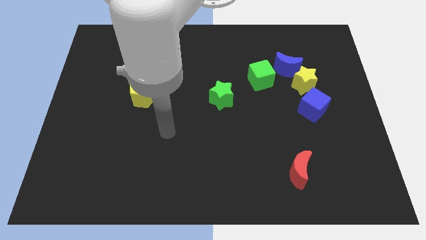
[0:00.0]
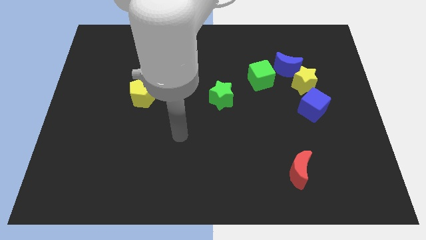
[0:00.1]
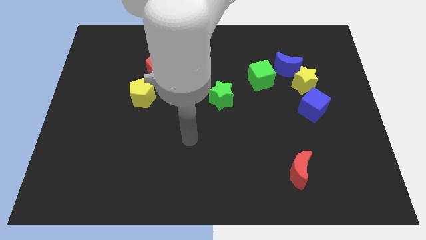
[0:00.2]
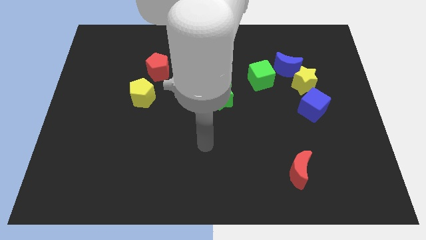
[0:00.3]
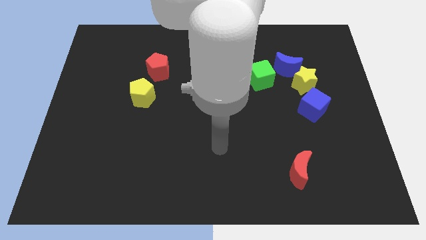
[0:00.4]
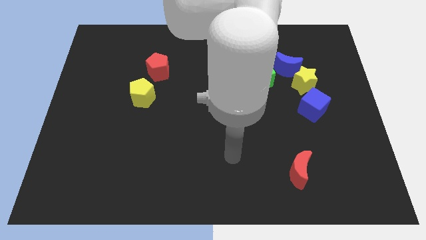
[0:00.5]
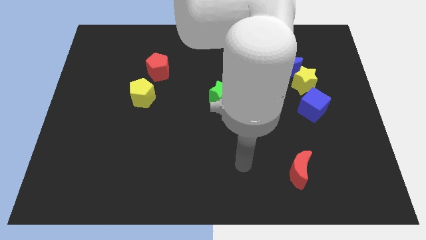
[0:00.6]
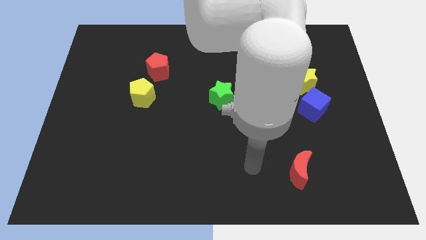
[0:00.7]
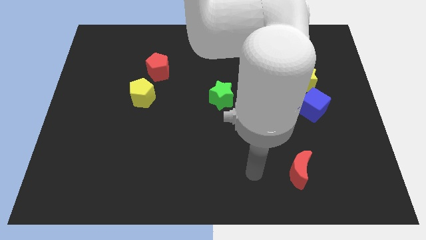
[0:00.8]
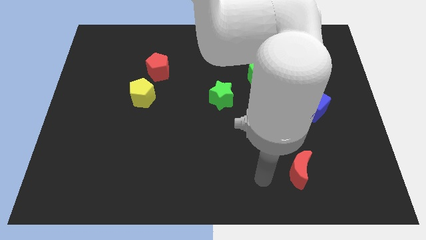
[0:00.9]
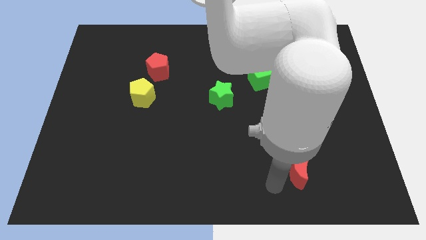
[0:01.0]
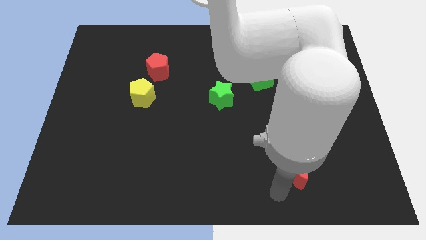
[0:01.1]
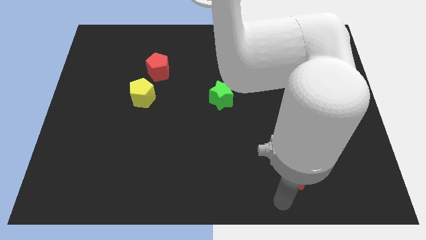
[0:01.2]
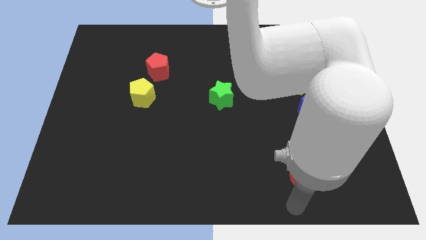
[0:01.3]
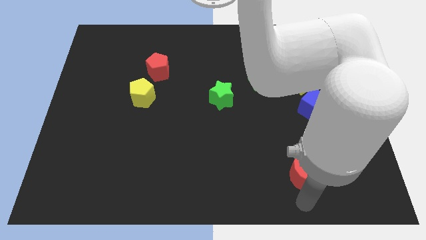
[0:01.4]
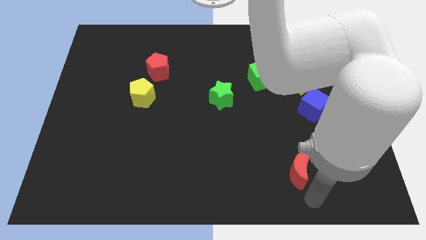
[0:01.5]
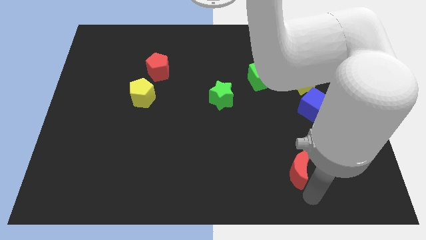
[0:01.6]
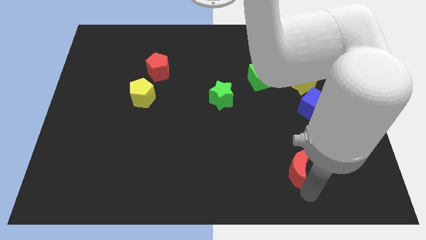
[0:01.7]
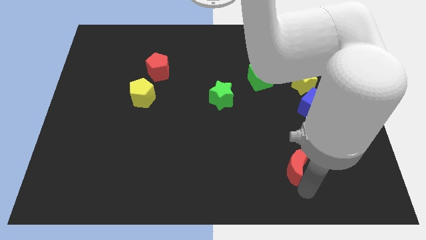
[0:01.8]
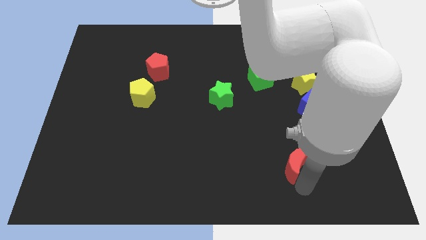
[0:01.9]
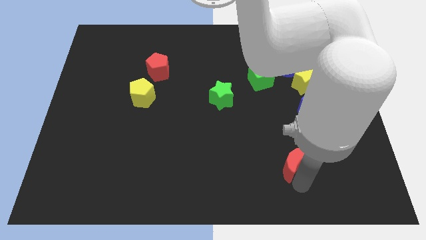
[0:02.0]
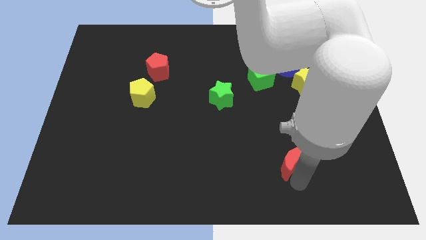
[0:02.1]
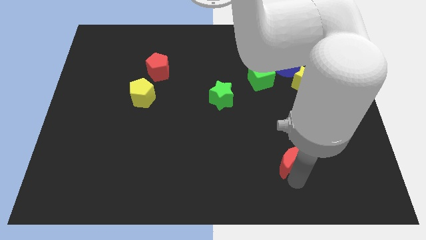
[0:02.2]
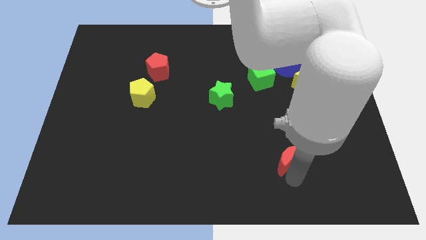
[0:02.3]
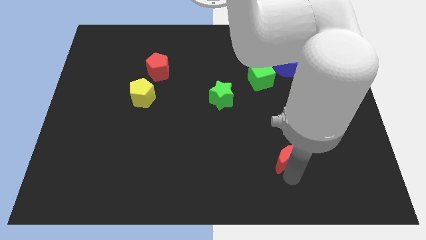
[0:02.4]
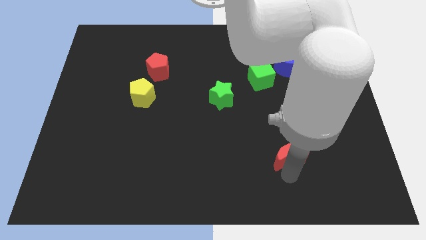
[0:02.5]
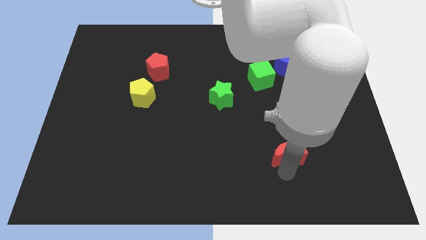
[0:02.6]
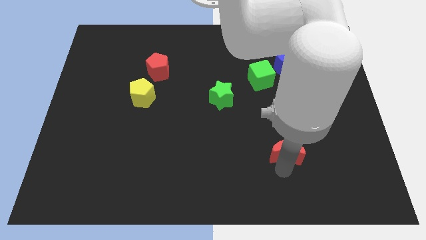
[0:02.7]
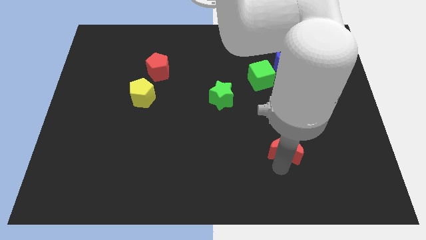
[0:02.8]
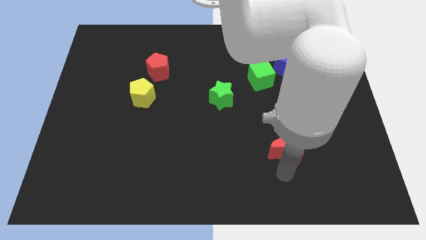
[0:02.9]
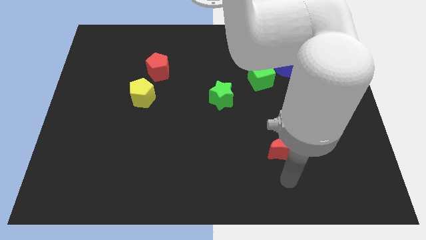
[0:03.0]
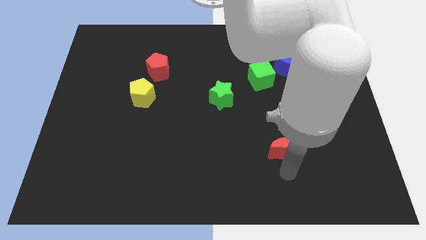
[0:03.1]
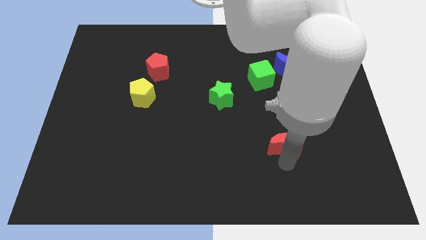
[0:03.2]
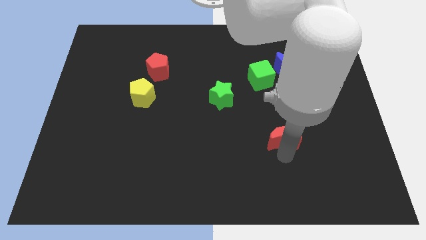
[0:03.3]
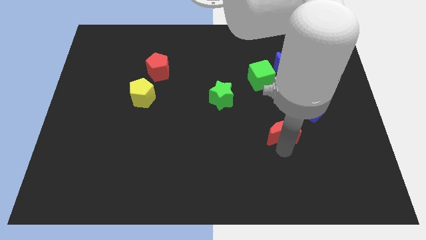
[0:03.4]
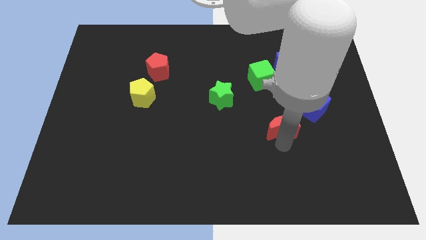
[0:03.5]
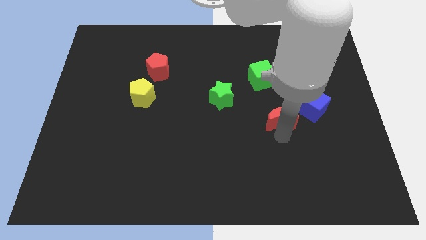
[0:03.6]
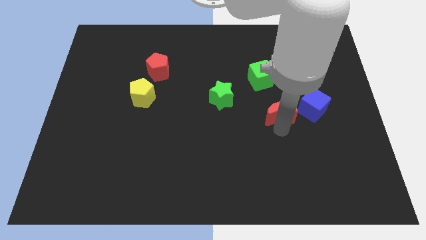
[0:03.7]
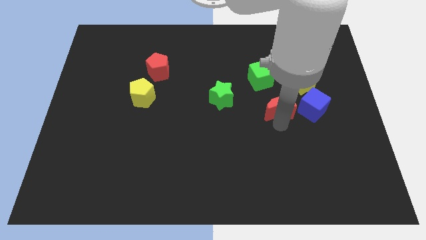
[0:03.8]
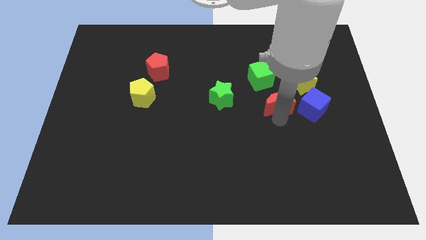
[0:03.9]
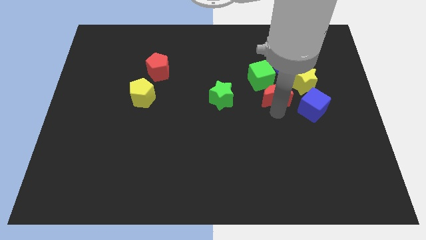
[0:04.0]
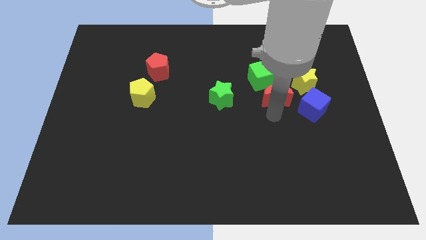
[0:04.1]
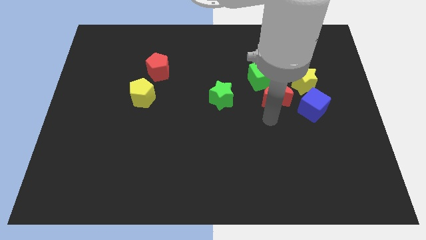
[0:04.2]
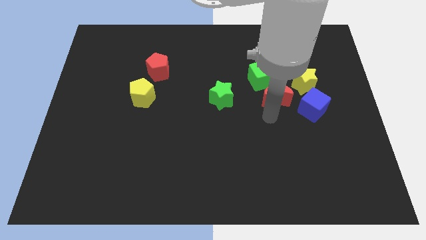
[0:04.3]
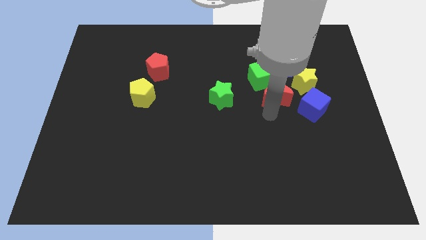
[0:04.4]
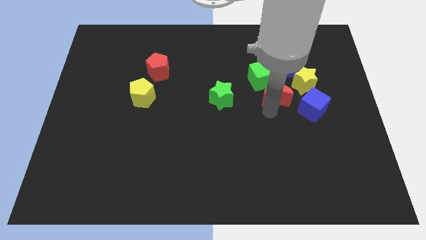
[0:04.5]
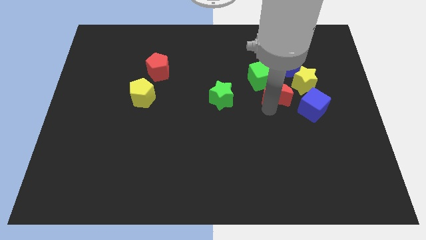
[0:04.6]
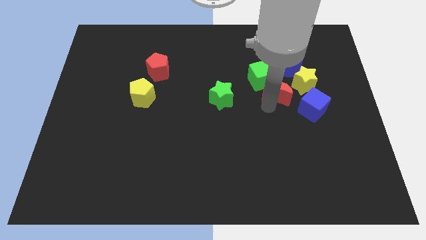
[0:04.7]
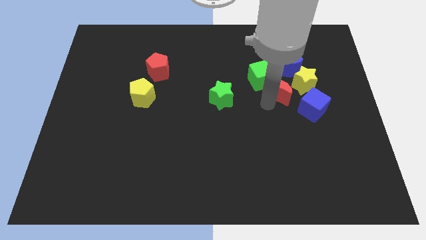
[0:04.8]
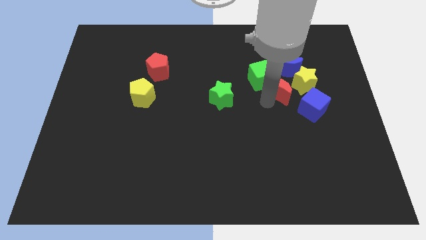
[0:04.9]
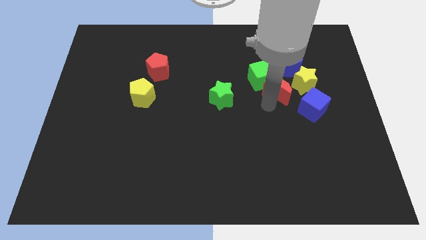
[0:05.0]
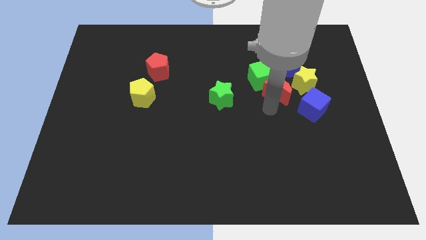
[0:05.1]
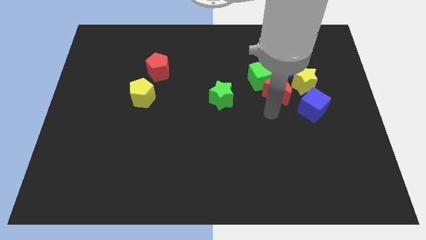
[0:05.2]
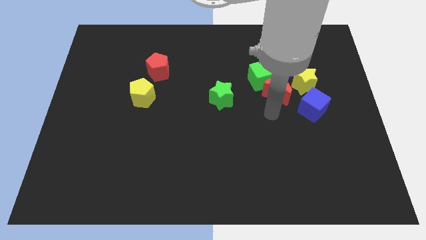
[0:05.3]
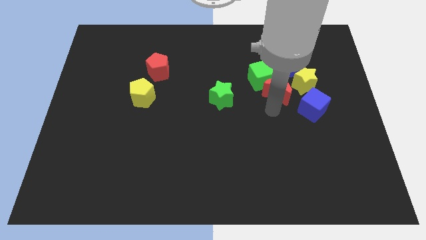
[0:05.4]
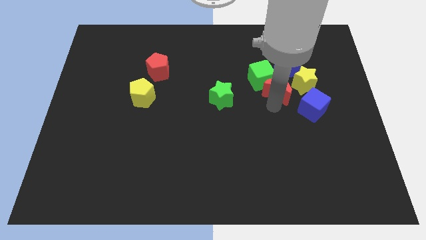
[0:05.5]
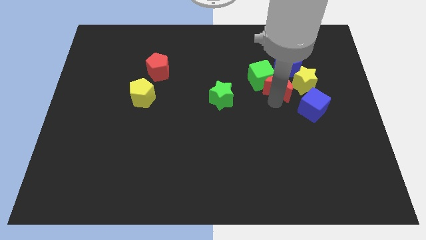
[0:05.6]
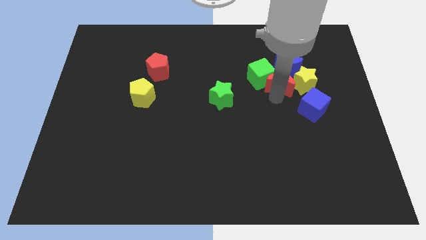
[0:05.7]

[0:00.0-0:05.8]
push the red moon to the top left side of the yellow star
